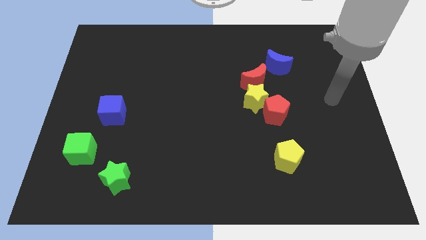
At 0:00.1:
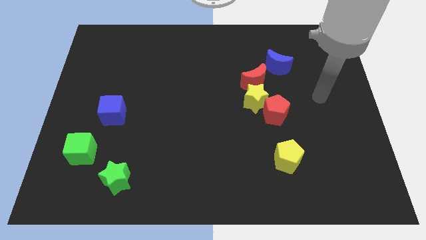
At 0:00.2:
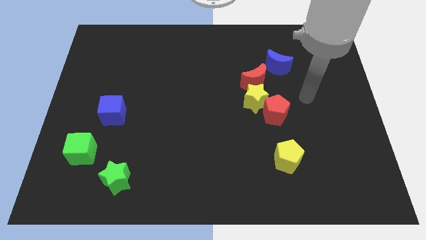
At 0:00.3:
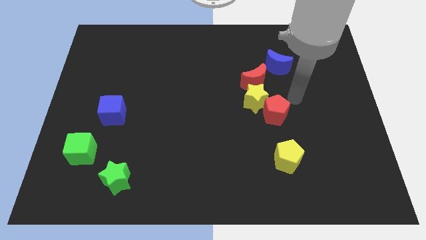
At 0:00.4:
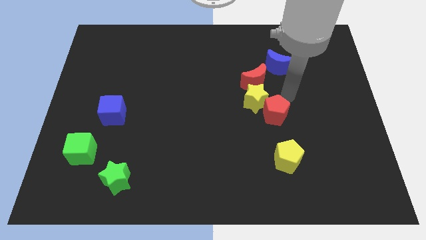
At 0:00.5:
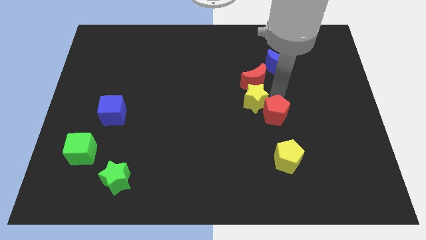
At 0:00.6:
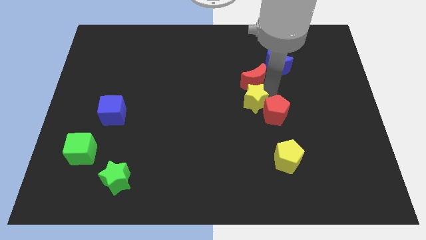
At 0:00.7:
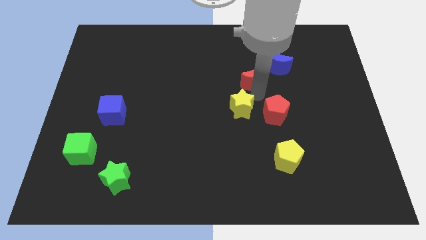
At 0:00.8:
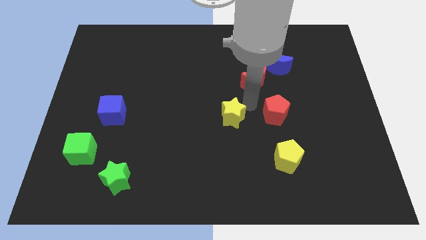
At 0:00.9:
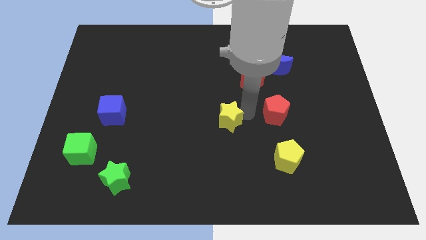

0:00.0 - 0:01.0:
pull the red pentagon apart from the yellow star

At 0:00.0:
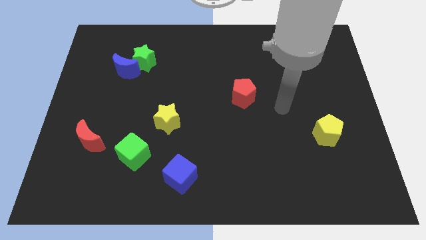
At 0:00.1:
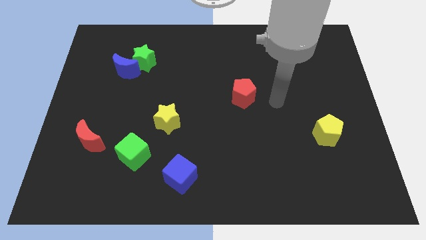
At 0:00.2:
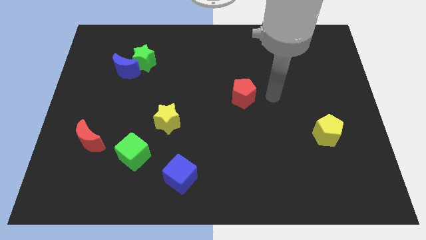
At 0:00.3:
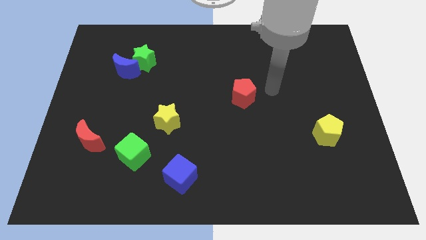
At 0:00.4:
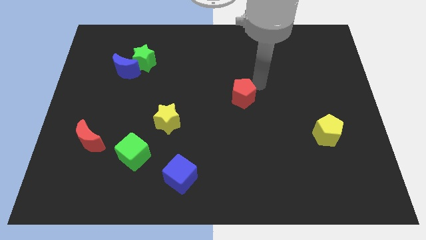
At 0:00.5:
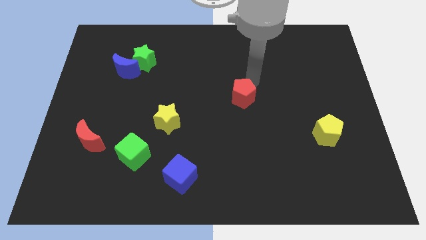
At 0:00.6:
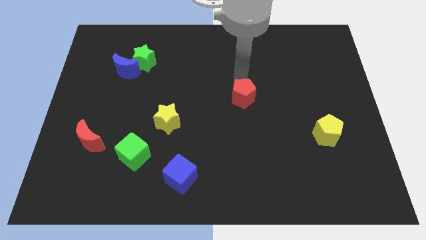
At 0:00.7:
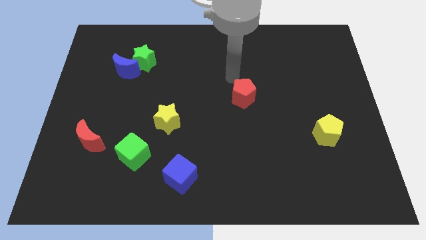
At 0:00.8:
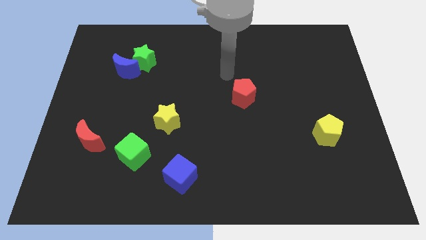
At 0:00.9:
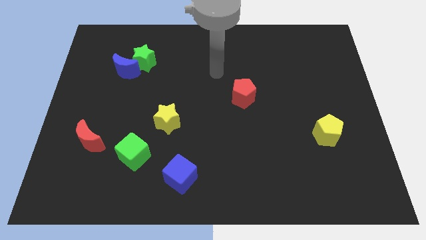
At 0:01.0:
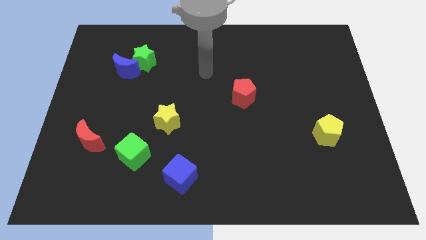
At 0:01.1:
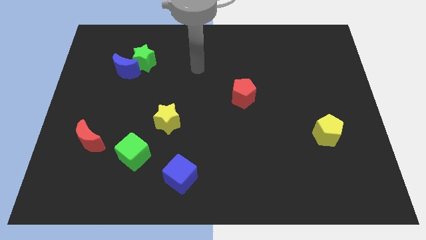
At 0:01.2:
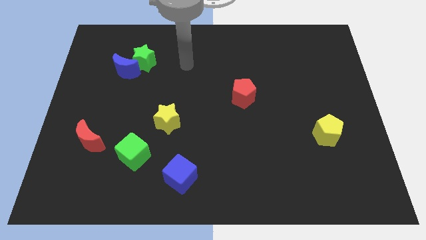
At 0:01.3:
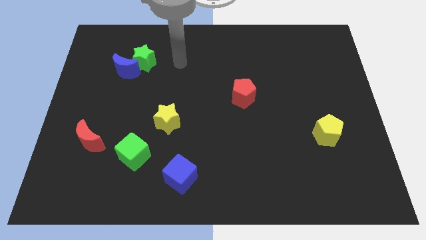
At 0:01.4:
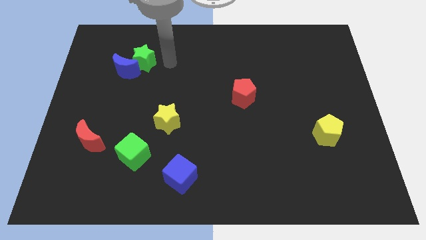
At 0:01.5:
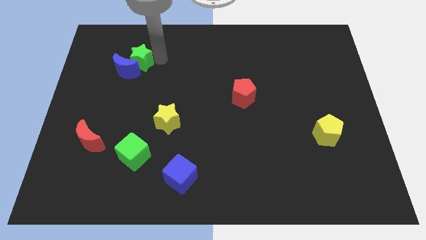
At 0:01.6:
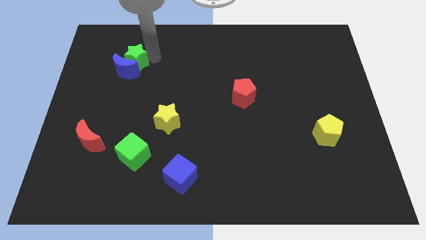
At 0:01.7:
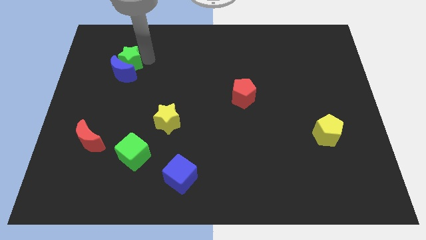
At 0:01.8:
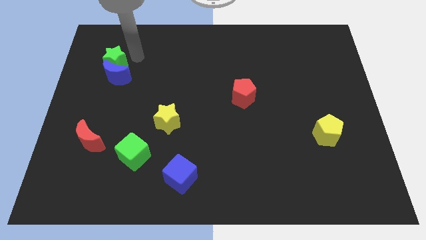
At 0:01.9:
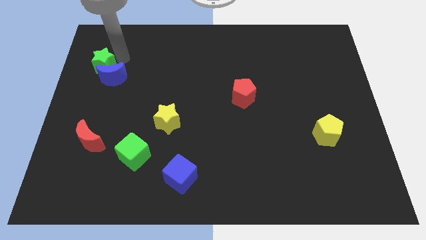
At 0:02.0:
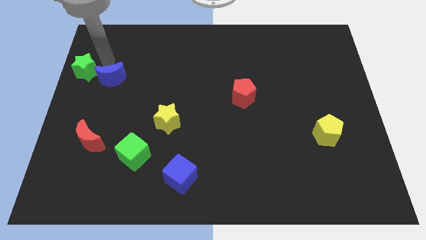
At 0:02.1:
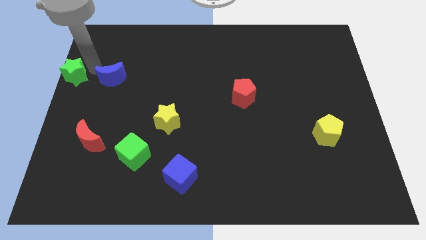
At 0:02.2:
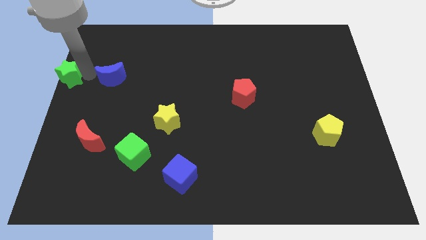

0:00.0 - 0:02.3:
separate the blue moon from the green star

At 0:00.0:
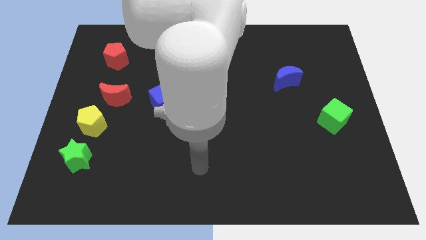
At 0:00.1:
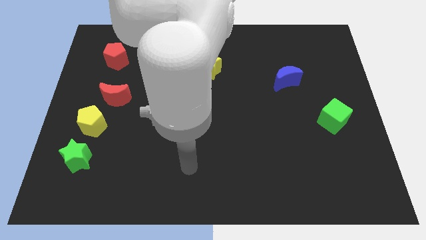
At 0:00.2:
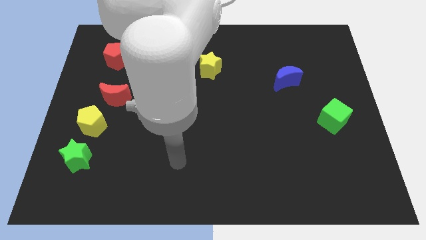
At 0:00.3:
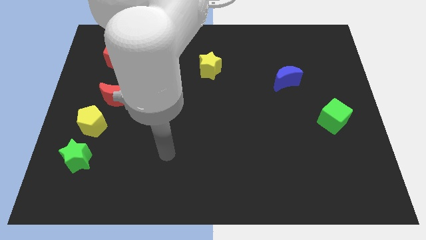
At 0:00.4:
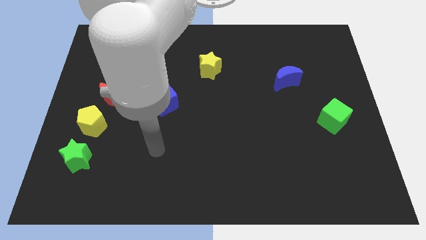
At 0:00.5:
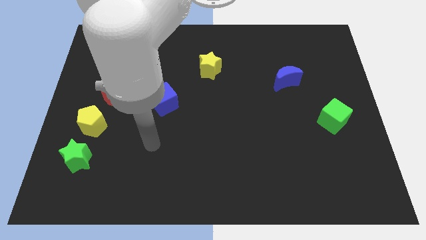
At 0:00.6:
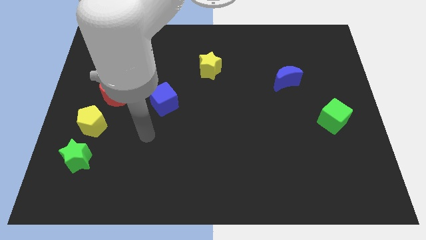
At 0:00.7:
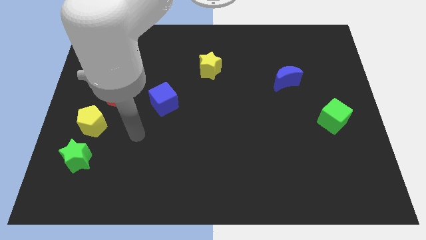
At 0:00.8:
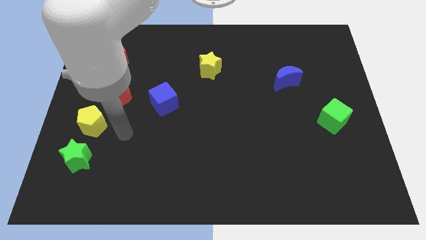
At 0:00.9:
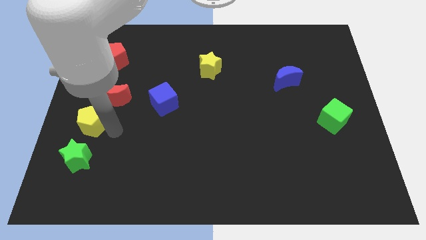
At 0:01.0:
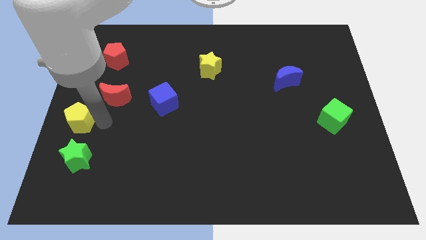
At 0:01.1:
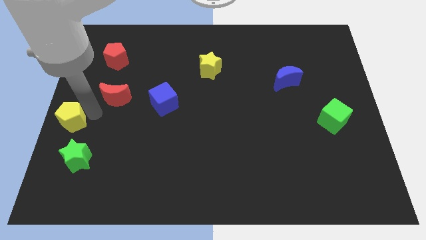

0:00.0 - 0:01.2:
move the red moon away from the yellow pentagon

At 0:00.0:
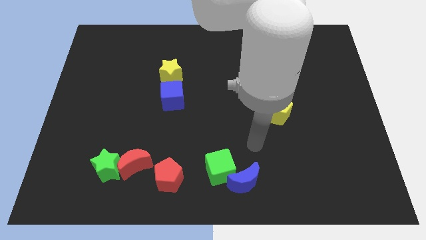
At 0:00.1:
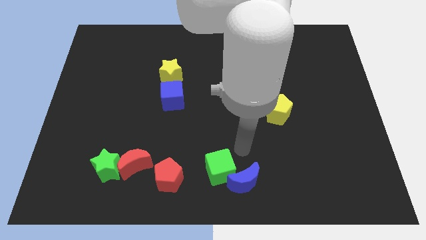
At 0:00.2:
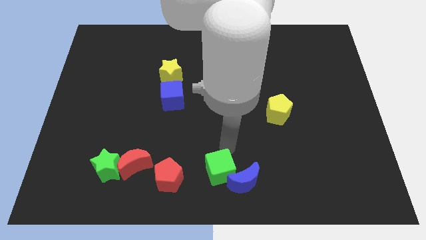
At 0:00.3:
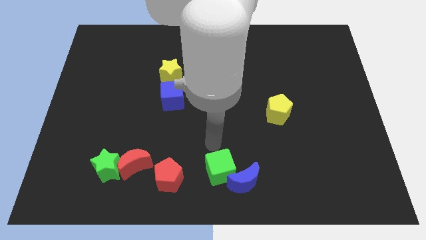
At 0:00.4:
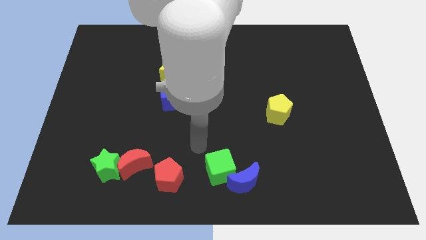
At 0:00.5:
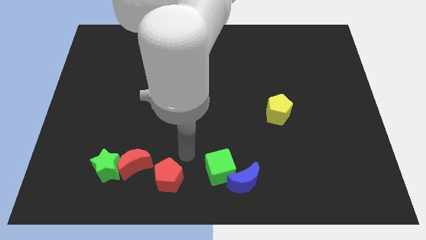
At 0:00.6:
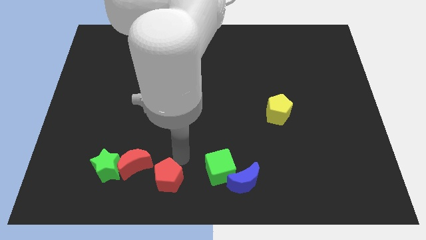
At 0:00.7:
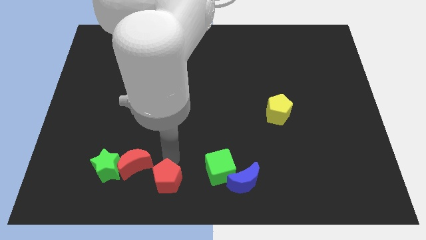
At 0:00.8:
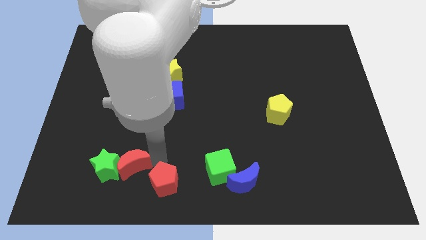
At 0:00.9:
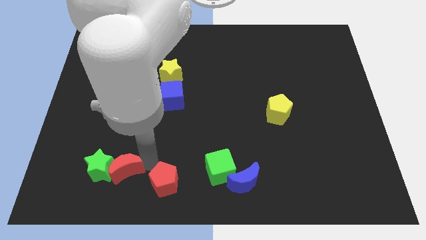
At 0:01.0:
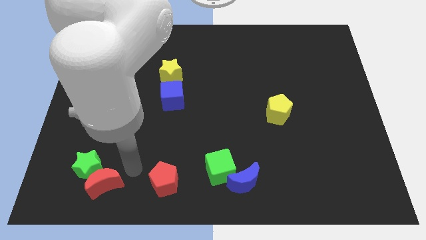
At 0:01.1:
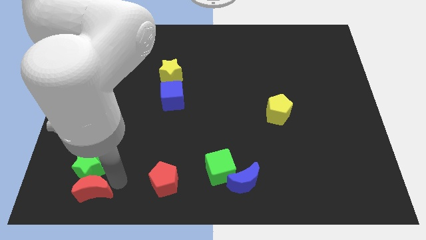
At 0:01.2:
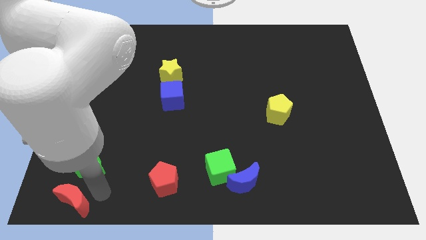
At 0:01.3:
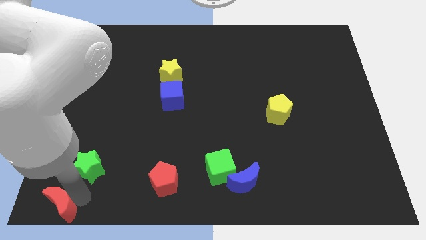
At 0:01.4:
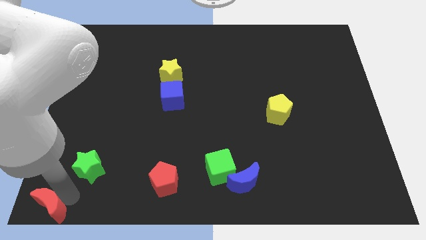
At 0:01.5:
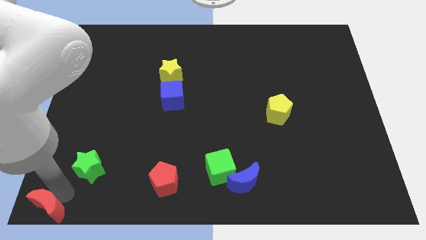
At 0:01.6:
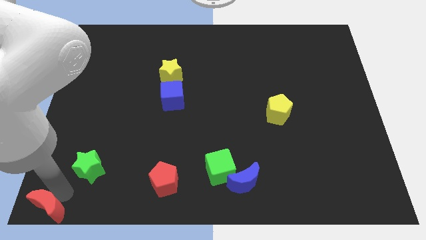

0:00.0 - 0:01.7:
pull the green star apart from the red moon

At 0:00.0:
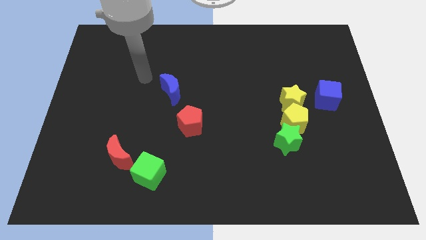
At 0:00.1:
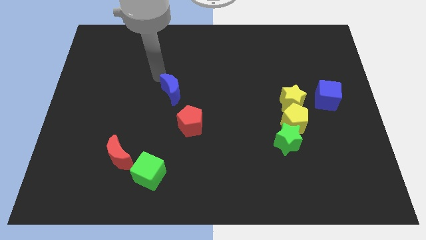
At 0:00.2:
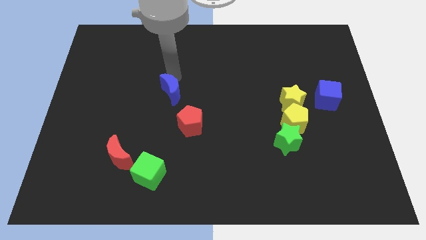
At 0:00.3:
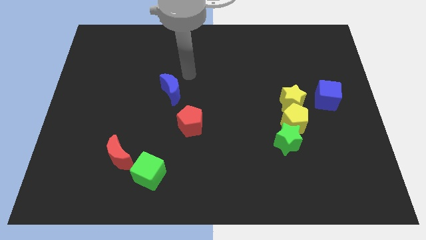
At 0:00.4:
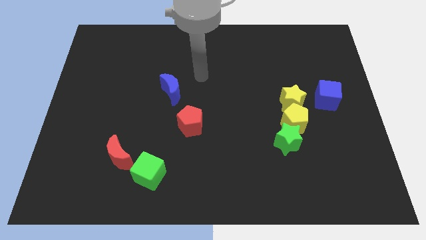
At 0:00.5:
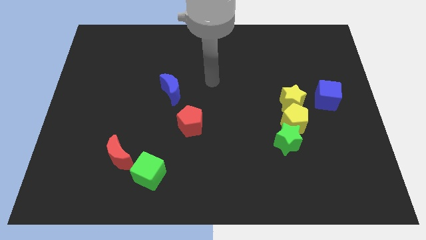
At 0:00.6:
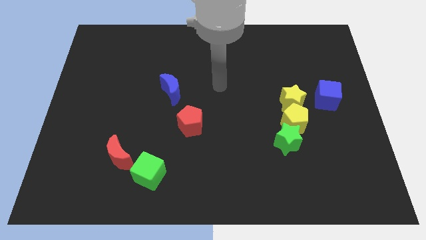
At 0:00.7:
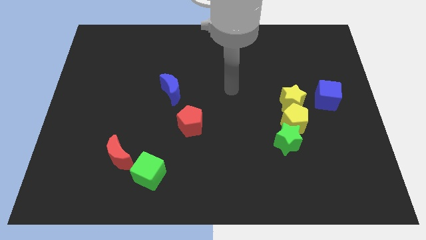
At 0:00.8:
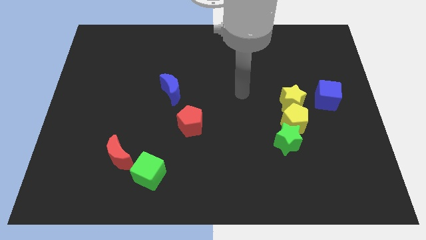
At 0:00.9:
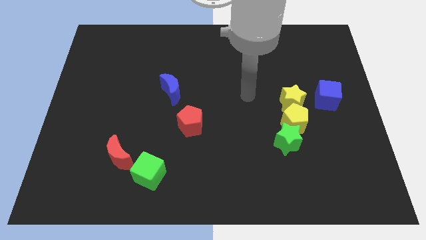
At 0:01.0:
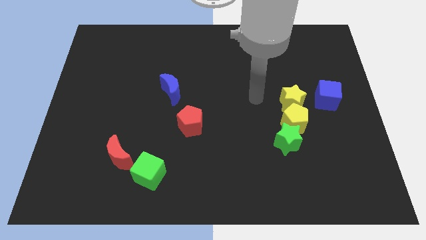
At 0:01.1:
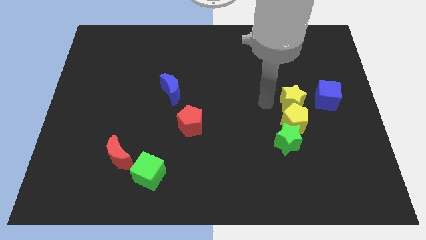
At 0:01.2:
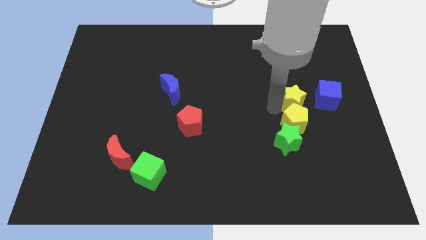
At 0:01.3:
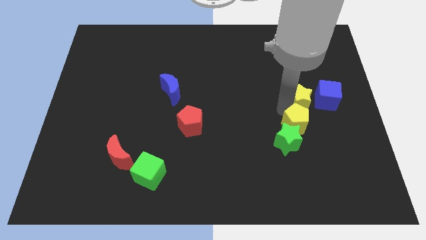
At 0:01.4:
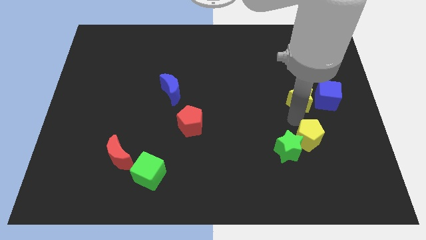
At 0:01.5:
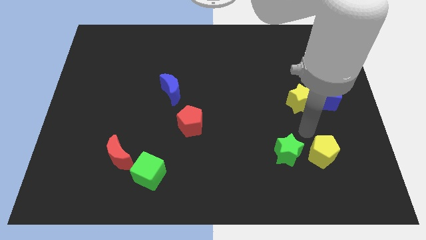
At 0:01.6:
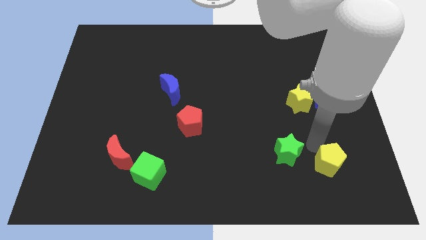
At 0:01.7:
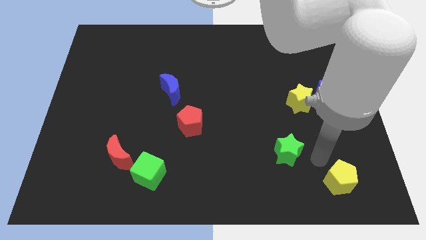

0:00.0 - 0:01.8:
separate the green star from the yellow pentagon

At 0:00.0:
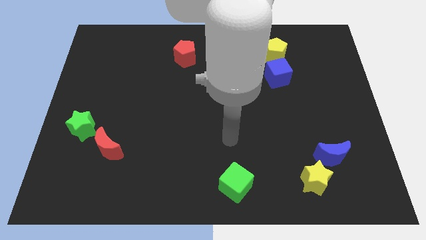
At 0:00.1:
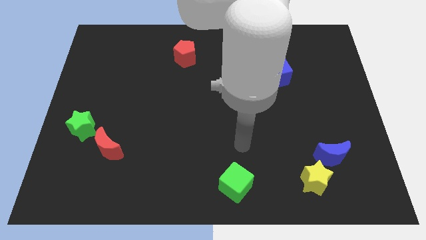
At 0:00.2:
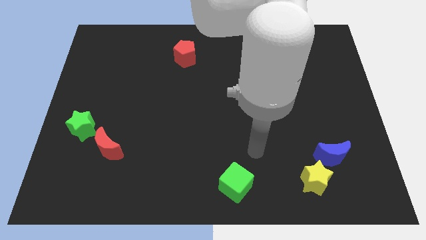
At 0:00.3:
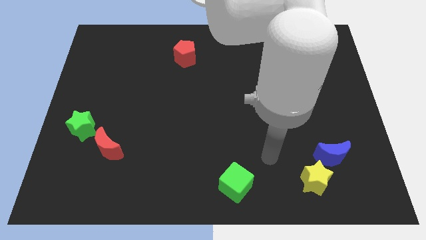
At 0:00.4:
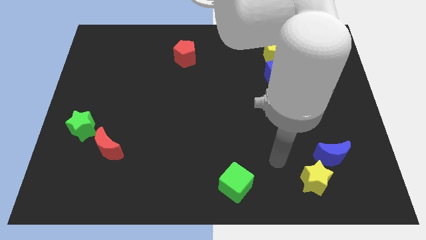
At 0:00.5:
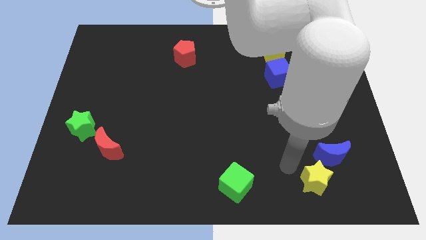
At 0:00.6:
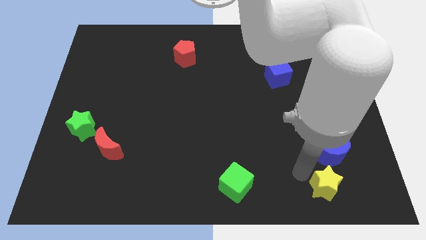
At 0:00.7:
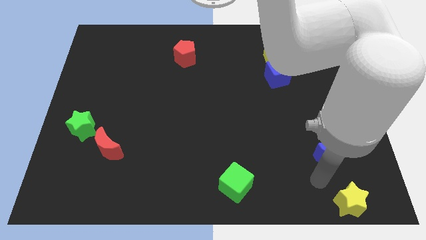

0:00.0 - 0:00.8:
separate the blue moon from the yellow star

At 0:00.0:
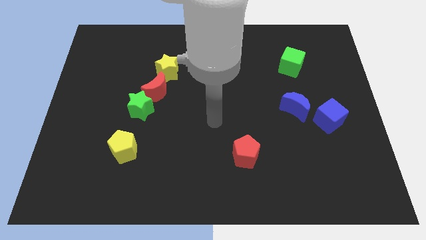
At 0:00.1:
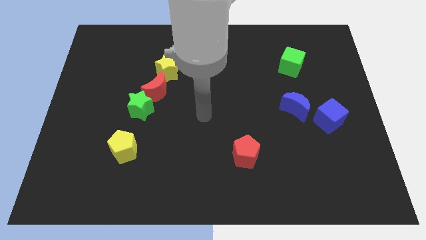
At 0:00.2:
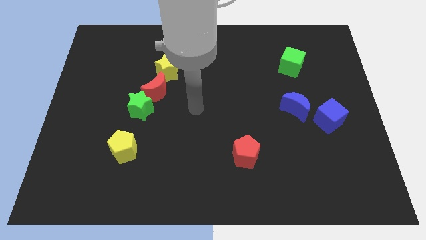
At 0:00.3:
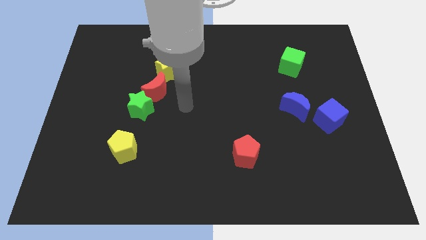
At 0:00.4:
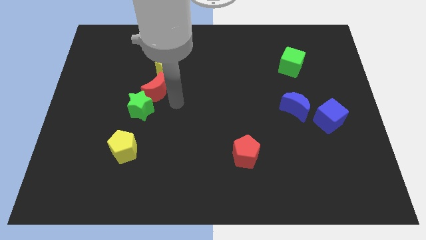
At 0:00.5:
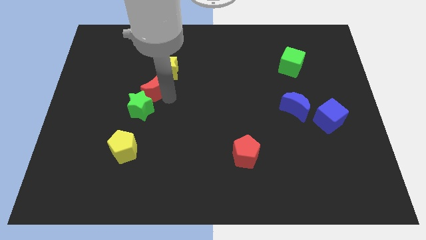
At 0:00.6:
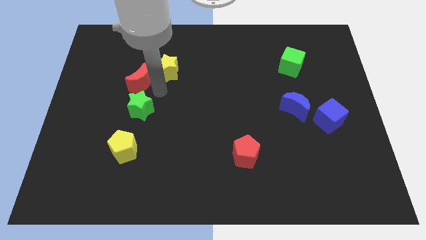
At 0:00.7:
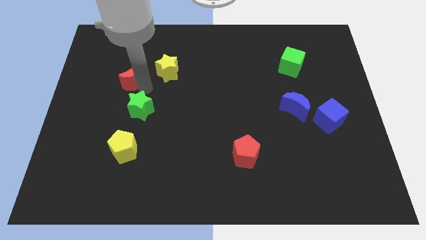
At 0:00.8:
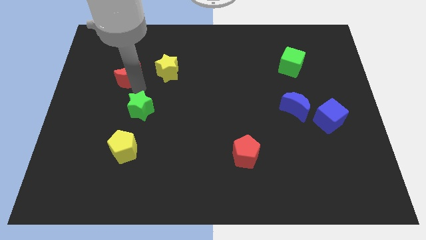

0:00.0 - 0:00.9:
move the green star away from the red moon
